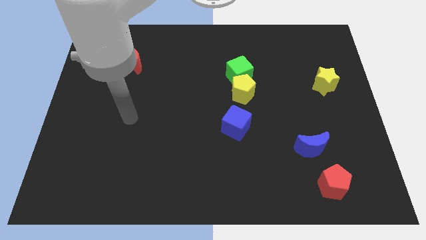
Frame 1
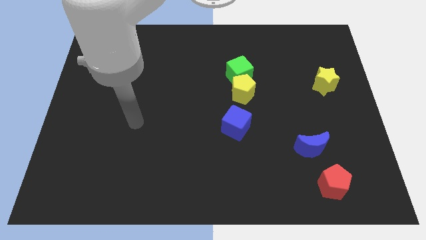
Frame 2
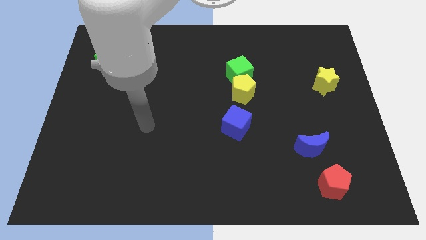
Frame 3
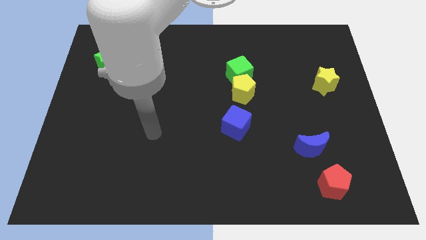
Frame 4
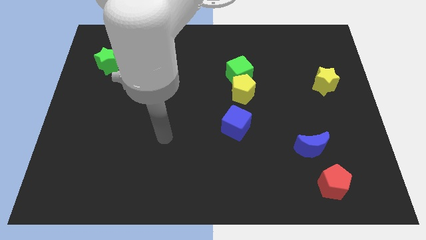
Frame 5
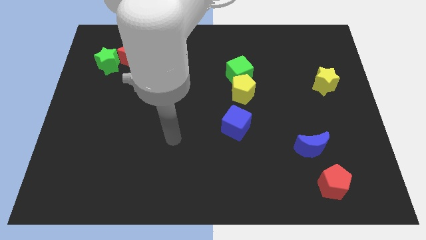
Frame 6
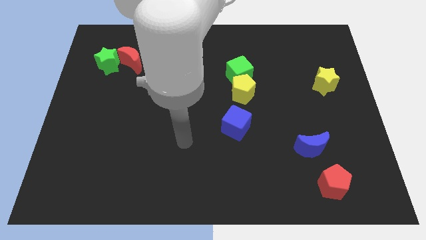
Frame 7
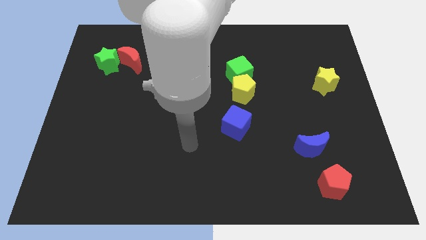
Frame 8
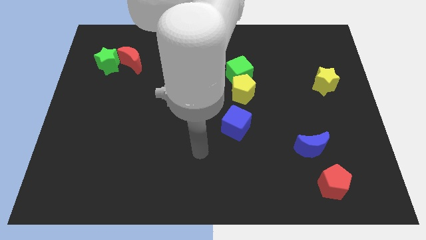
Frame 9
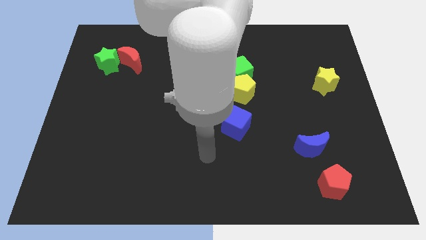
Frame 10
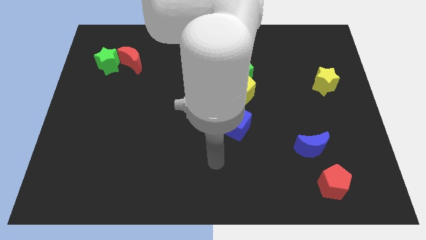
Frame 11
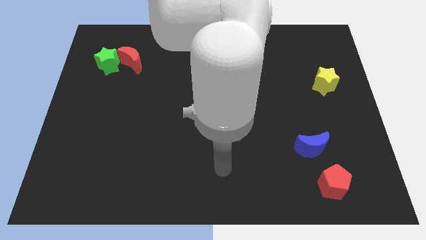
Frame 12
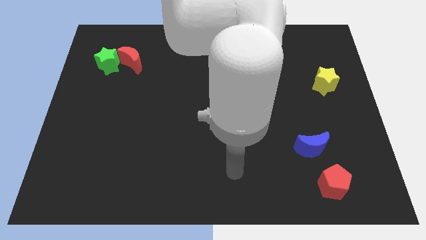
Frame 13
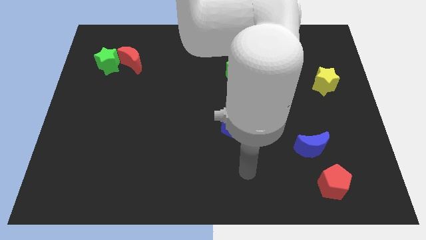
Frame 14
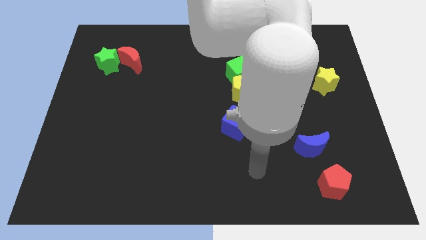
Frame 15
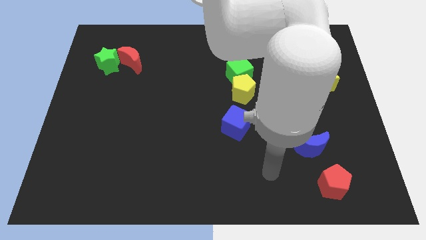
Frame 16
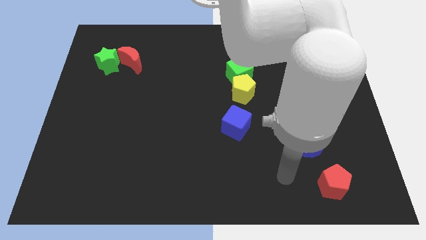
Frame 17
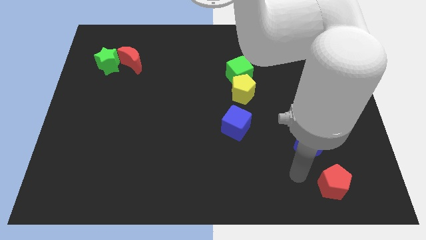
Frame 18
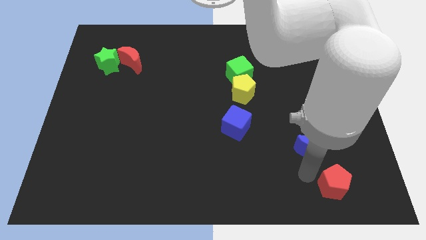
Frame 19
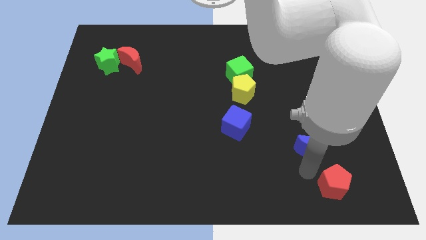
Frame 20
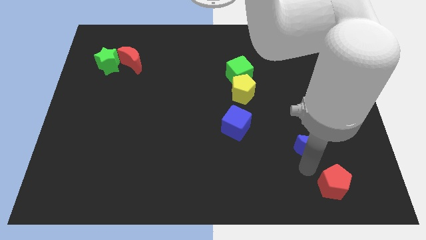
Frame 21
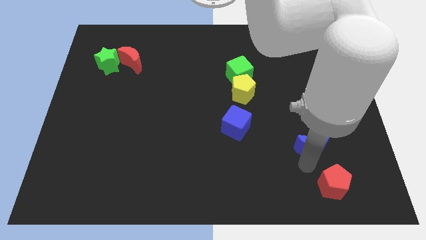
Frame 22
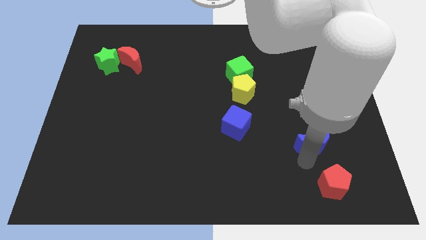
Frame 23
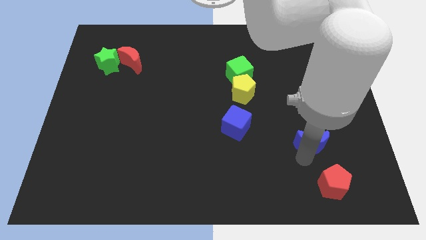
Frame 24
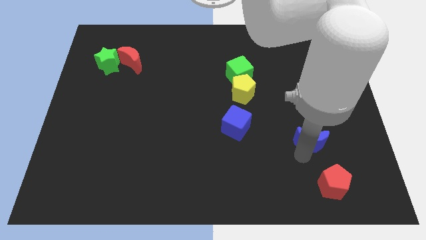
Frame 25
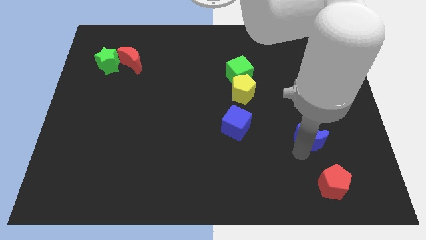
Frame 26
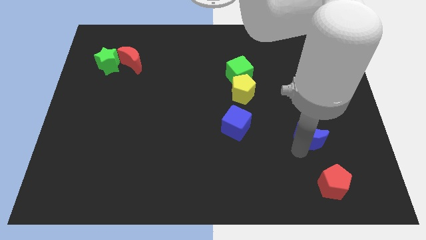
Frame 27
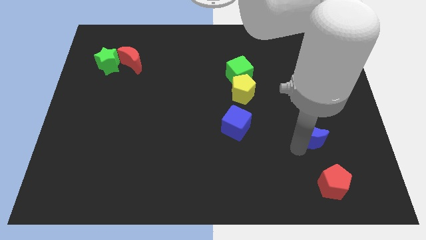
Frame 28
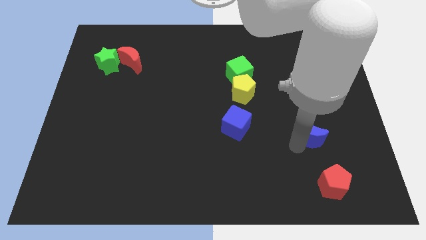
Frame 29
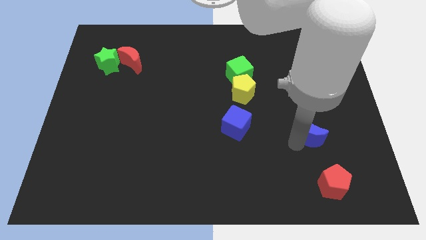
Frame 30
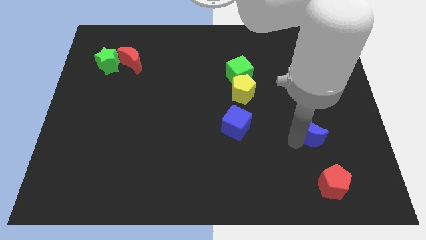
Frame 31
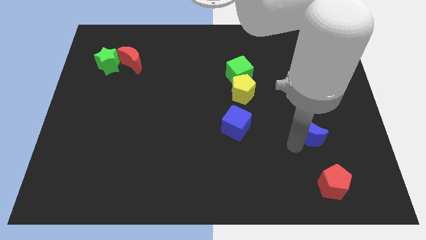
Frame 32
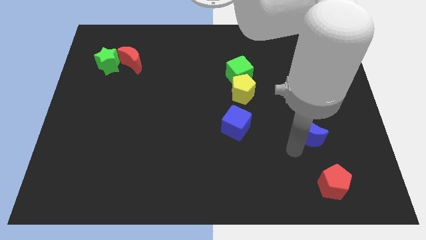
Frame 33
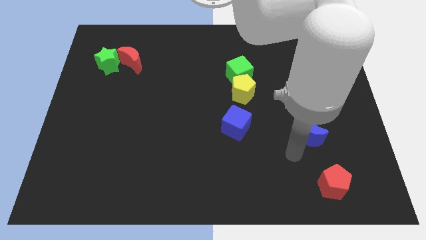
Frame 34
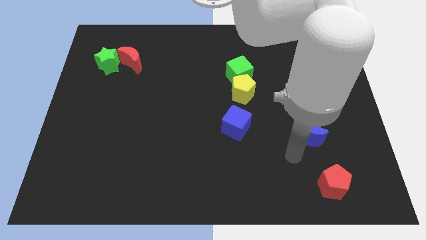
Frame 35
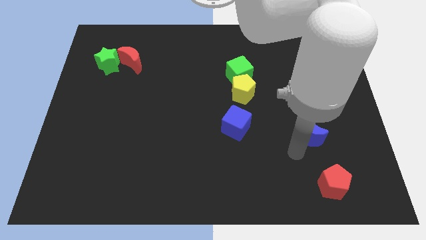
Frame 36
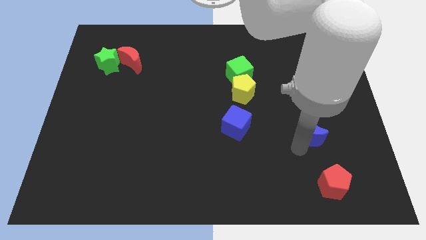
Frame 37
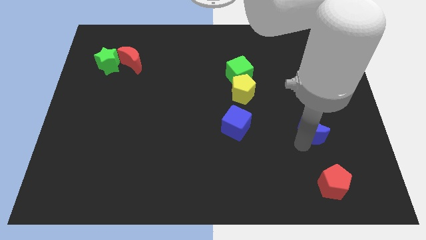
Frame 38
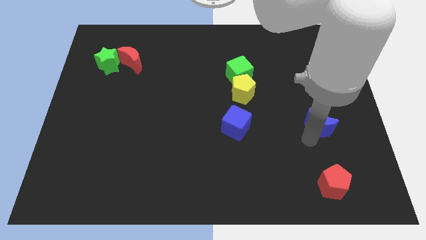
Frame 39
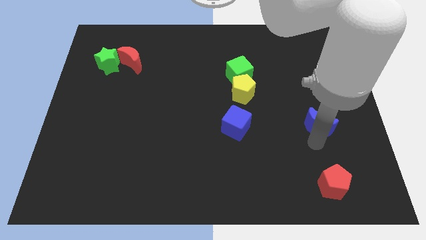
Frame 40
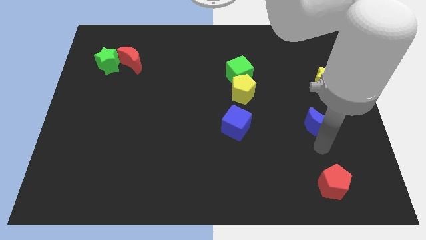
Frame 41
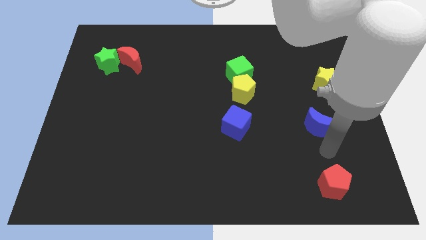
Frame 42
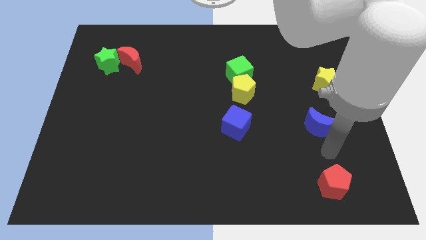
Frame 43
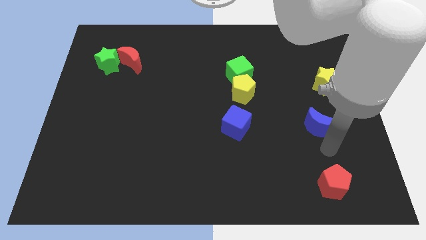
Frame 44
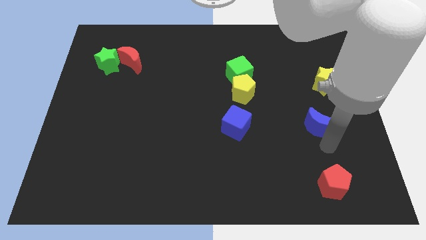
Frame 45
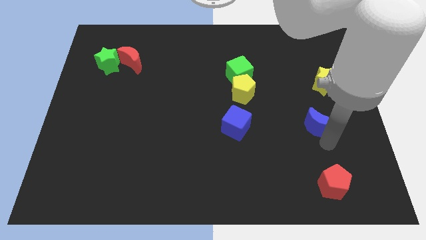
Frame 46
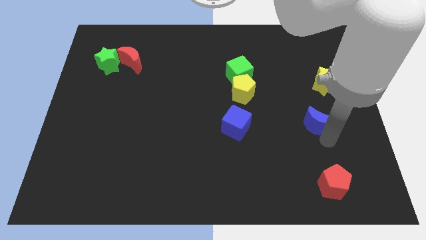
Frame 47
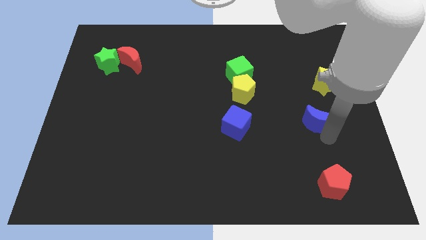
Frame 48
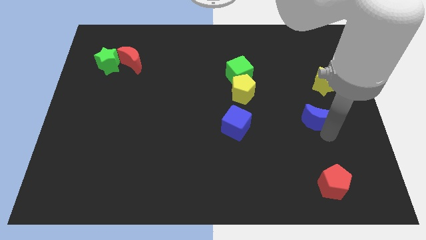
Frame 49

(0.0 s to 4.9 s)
move the blue moon somewhat up

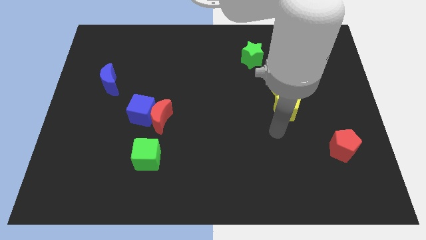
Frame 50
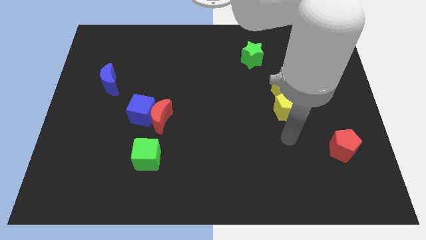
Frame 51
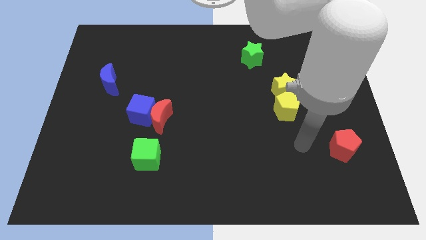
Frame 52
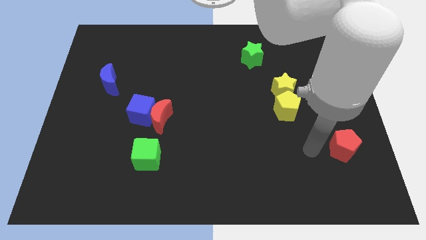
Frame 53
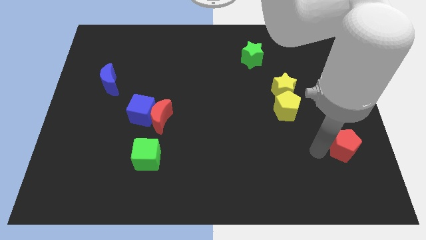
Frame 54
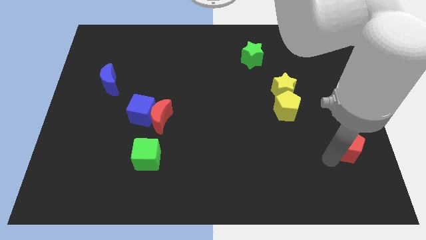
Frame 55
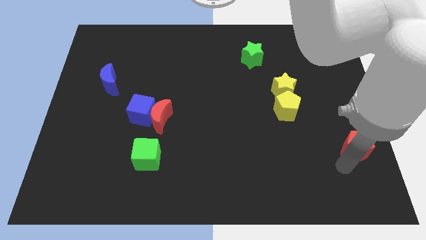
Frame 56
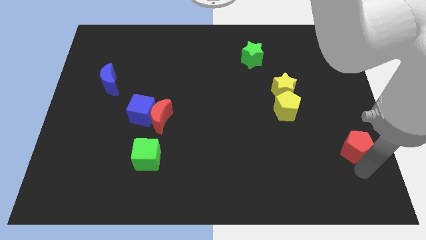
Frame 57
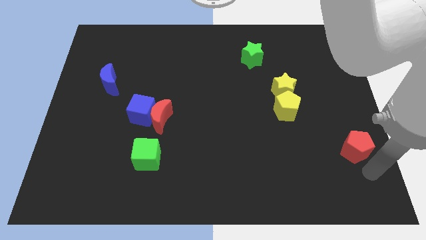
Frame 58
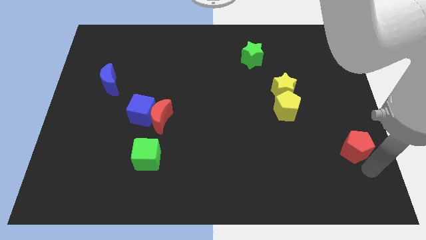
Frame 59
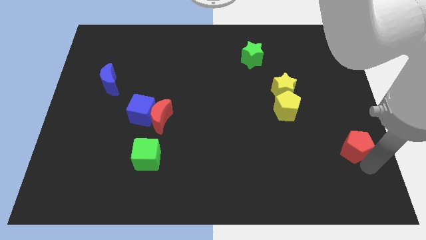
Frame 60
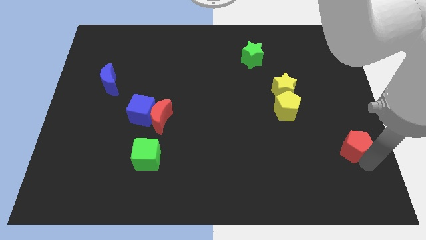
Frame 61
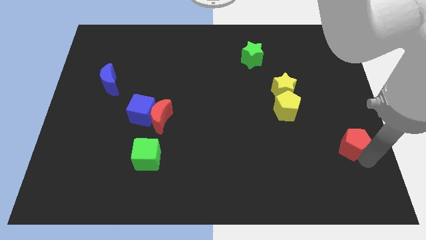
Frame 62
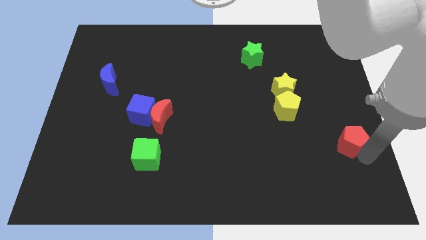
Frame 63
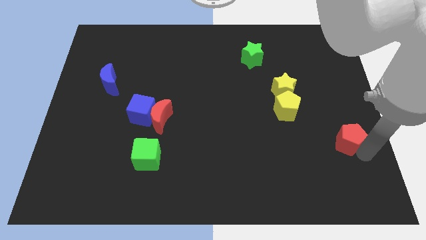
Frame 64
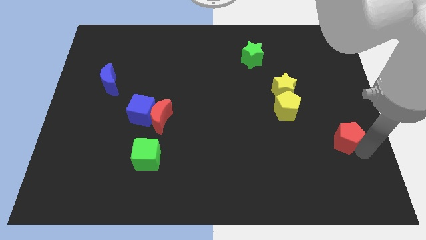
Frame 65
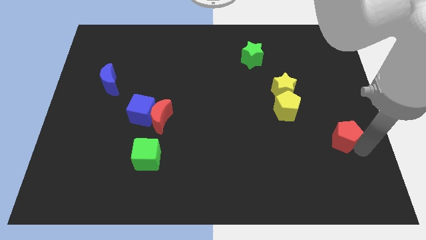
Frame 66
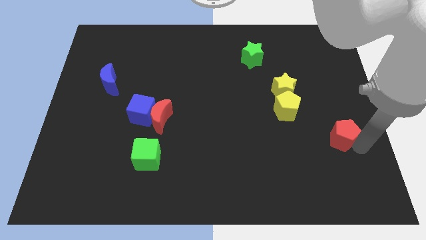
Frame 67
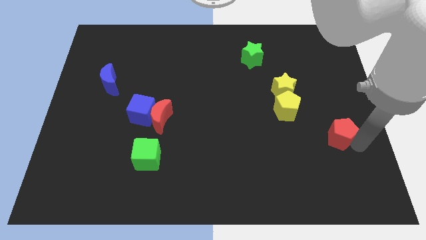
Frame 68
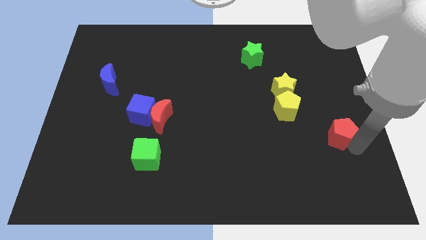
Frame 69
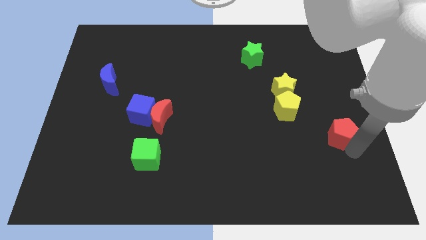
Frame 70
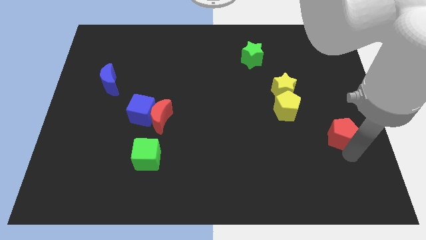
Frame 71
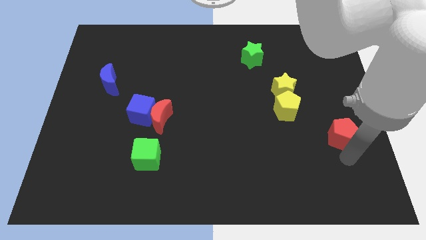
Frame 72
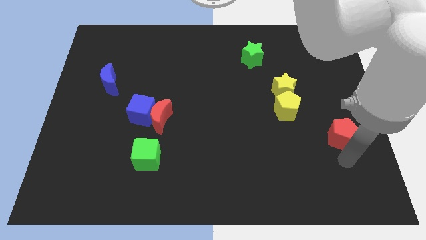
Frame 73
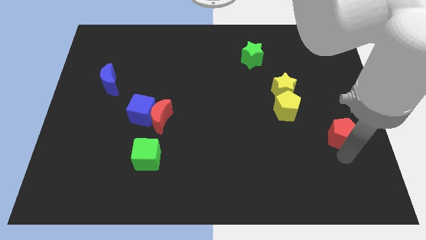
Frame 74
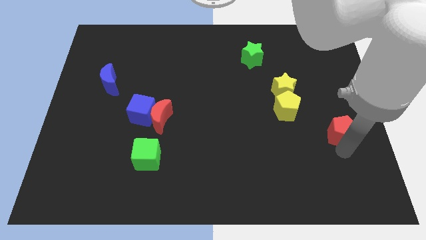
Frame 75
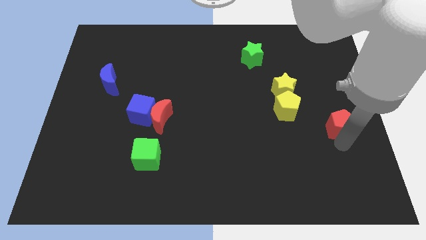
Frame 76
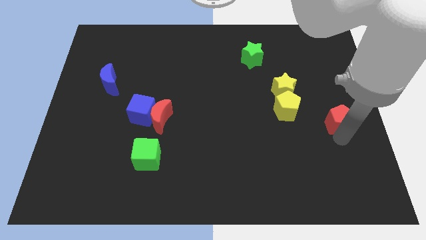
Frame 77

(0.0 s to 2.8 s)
slide the red pentagon a bit up

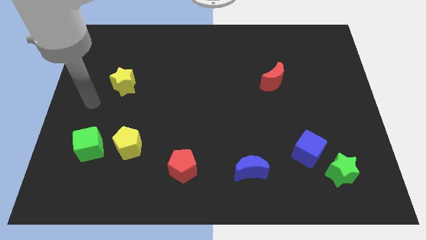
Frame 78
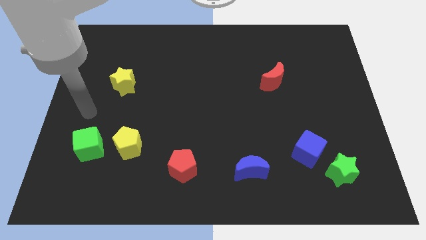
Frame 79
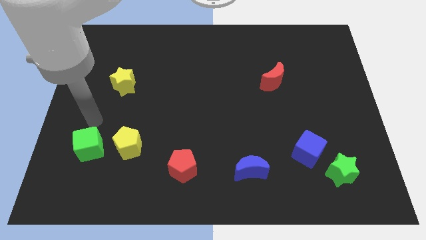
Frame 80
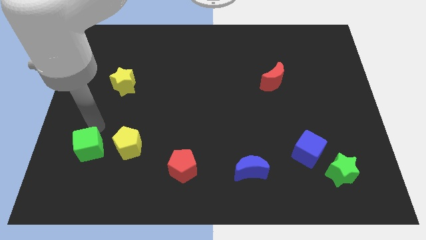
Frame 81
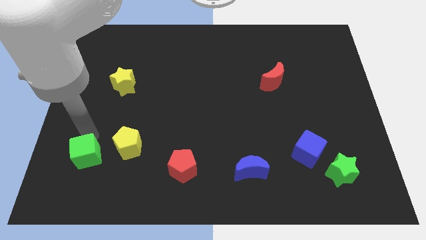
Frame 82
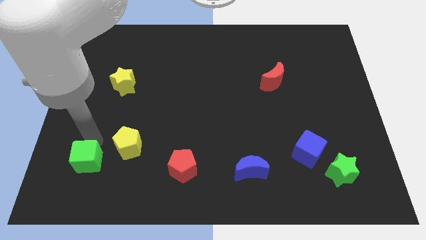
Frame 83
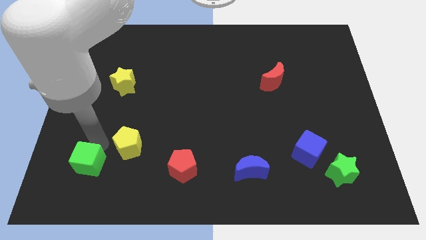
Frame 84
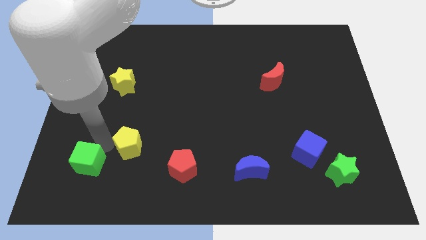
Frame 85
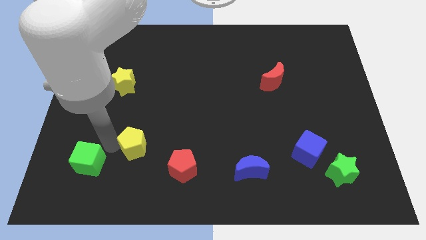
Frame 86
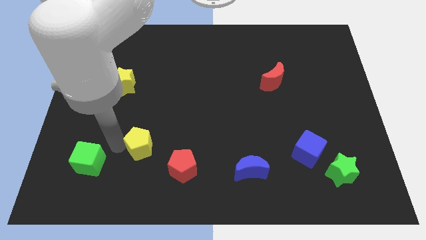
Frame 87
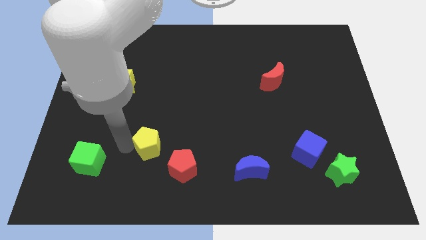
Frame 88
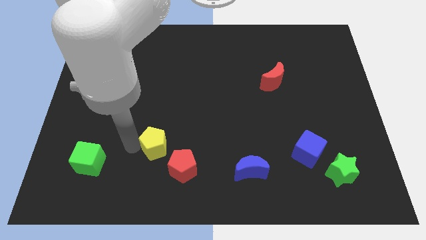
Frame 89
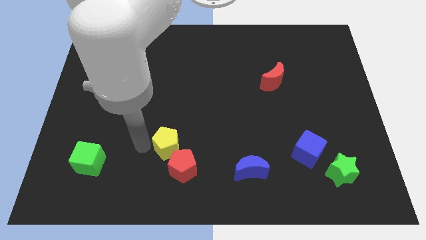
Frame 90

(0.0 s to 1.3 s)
push the yellow pentagon right a bit
